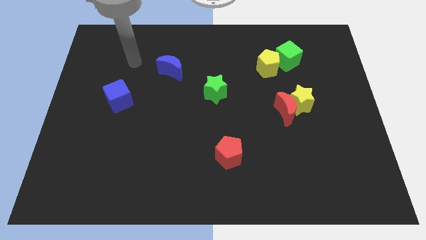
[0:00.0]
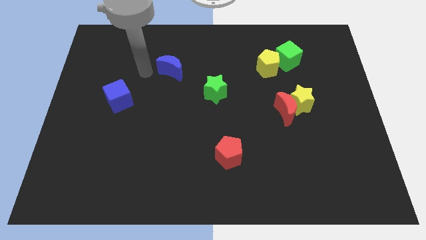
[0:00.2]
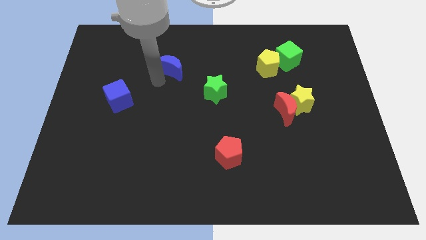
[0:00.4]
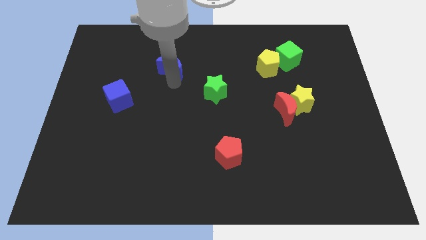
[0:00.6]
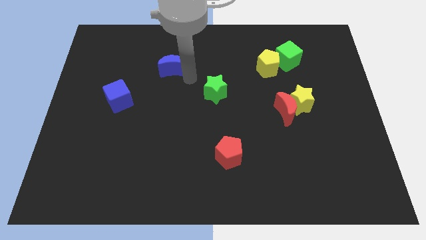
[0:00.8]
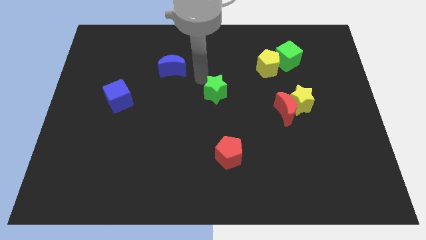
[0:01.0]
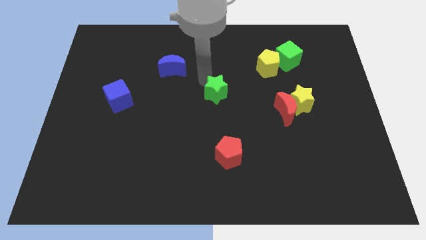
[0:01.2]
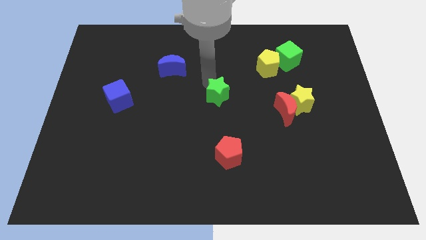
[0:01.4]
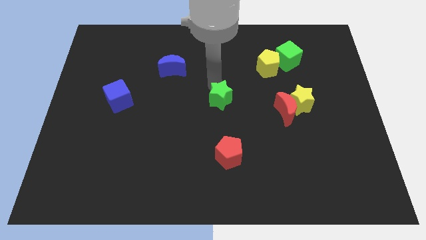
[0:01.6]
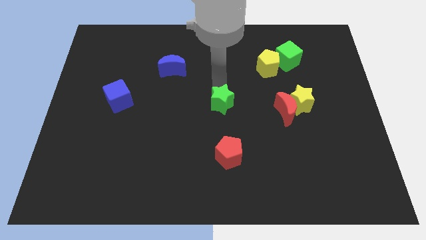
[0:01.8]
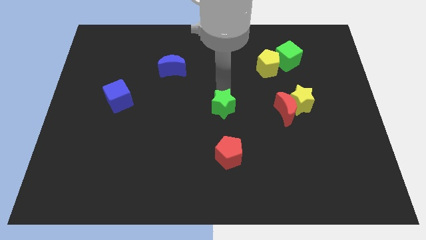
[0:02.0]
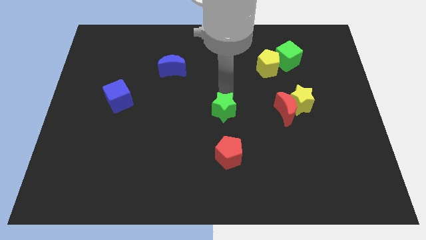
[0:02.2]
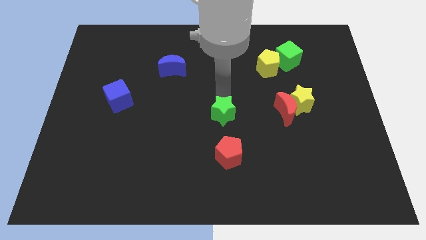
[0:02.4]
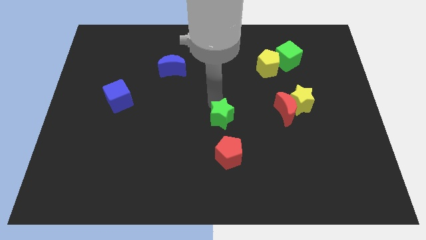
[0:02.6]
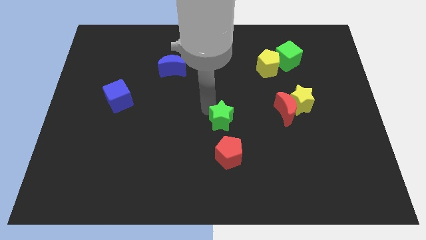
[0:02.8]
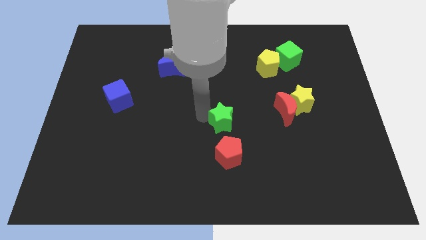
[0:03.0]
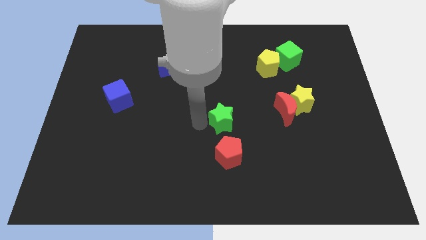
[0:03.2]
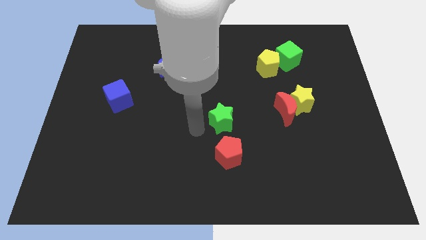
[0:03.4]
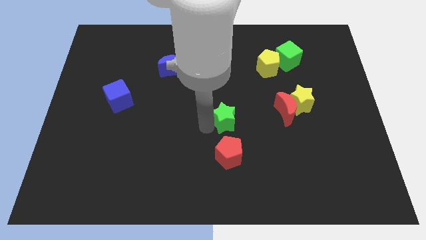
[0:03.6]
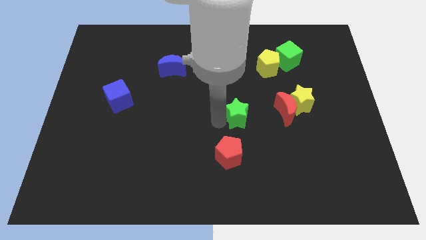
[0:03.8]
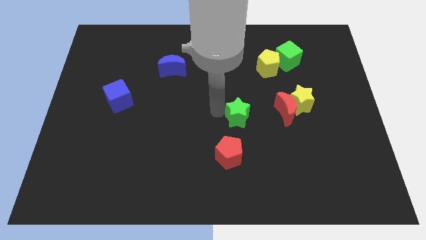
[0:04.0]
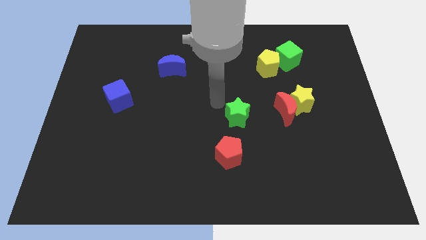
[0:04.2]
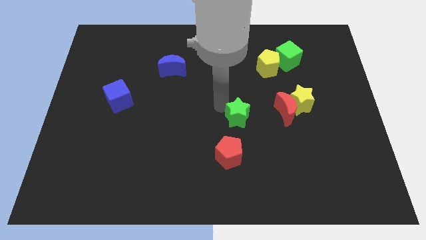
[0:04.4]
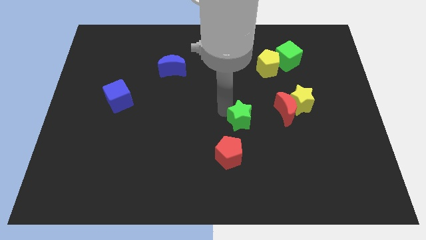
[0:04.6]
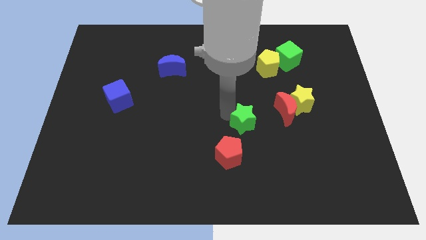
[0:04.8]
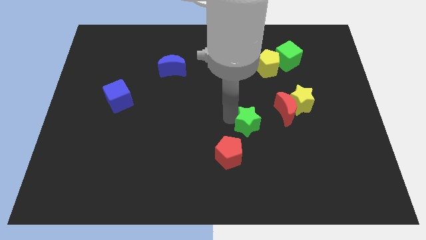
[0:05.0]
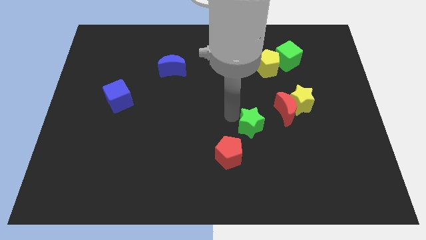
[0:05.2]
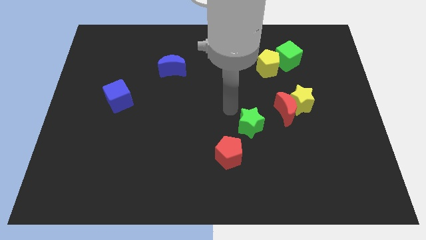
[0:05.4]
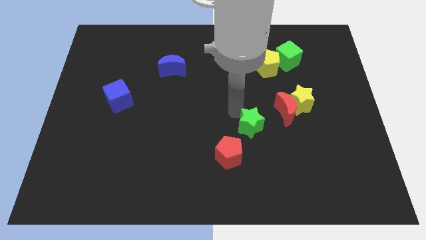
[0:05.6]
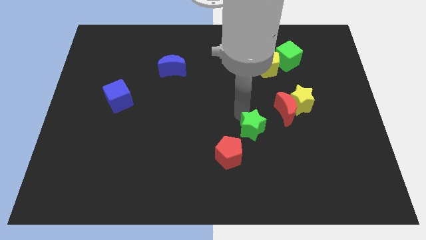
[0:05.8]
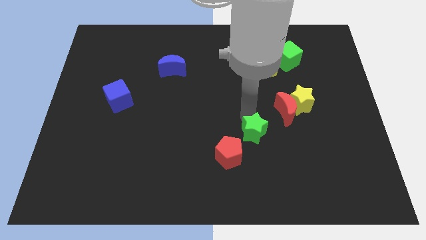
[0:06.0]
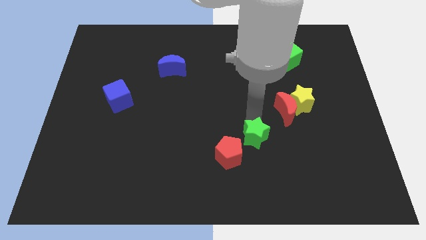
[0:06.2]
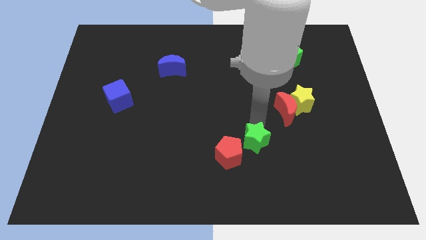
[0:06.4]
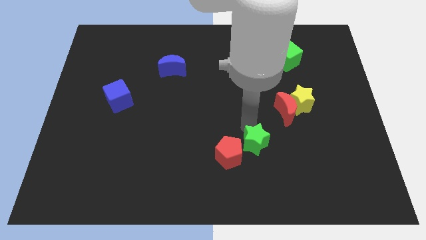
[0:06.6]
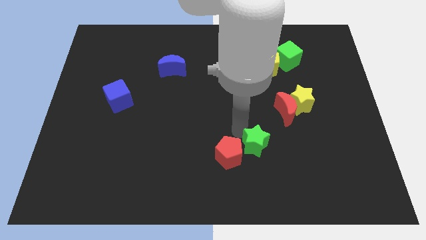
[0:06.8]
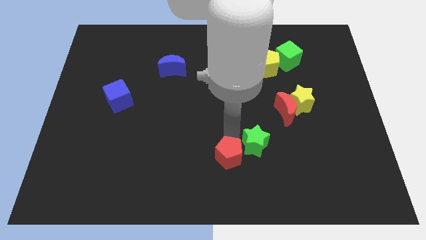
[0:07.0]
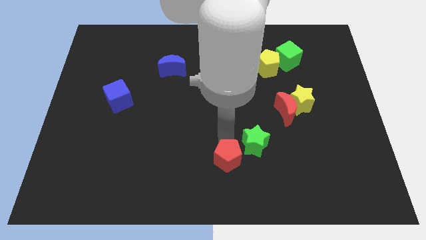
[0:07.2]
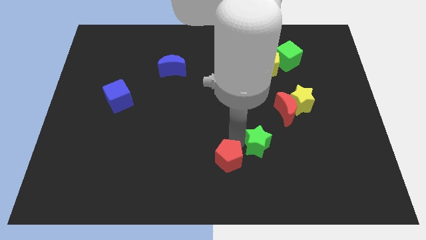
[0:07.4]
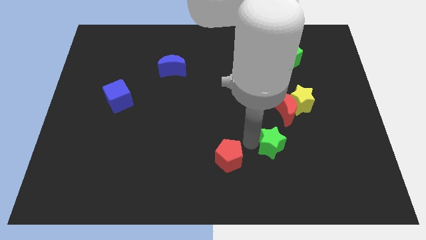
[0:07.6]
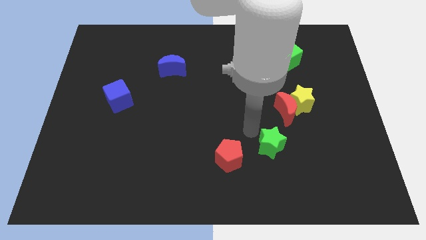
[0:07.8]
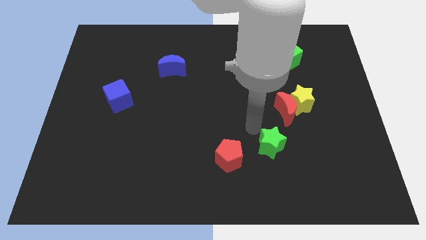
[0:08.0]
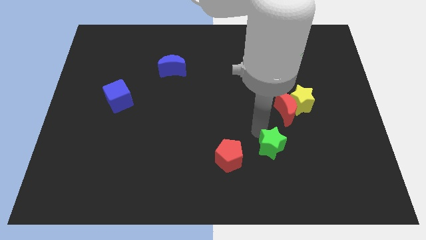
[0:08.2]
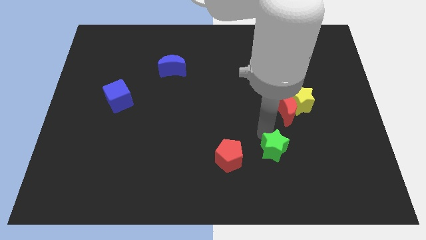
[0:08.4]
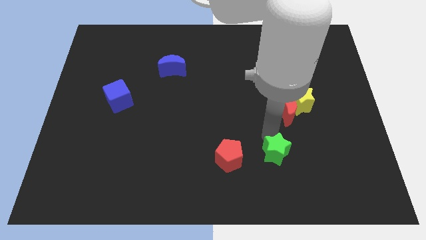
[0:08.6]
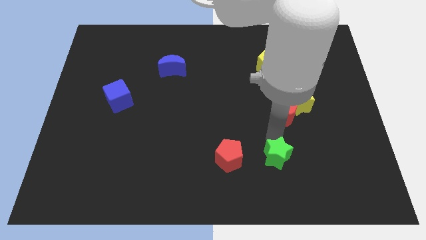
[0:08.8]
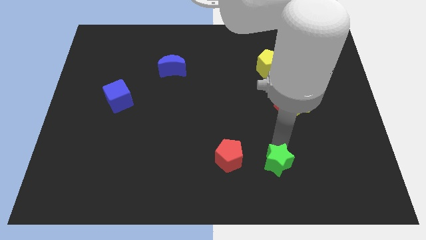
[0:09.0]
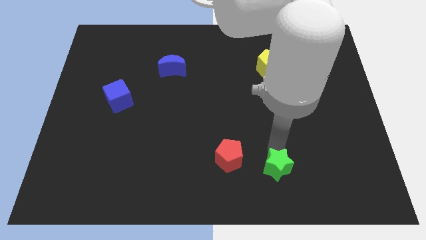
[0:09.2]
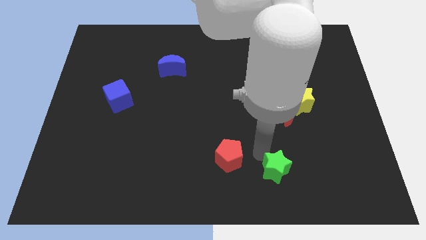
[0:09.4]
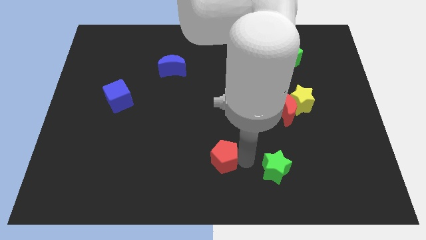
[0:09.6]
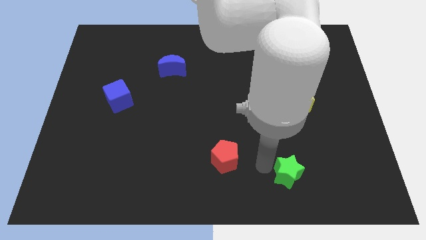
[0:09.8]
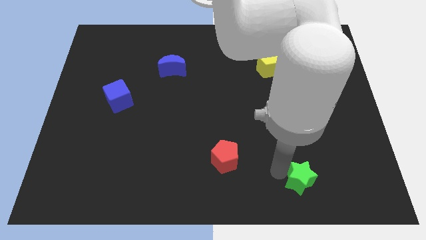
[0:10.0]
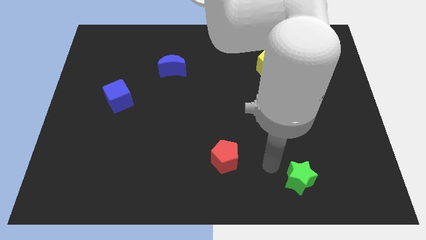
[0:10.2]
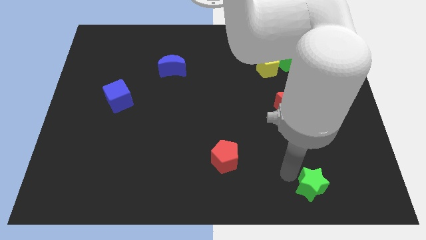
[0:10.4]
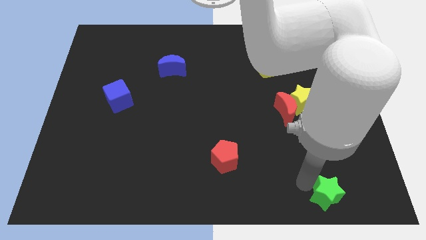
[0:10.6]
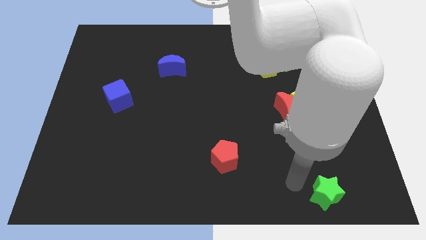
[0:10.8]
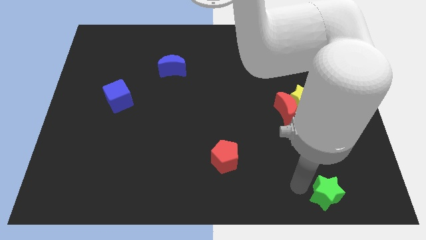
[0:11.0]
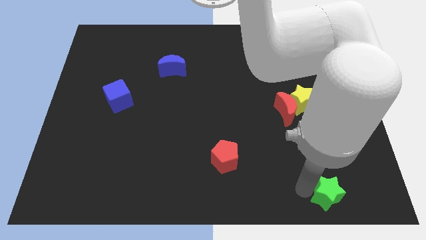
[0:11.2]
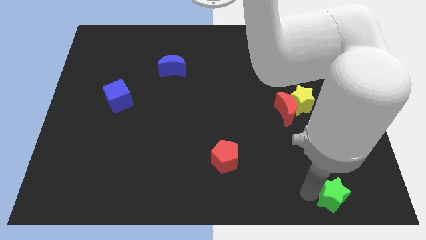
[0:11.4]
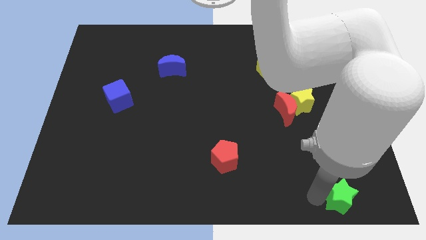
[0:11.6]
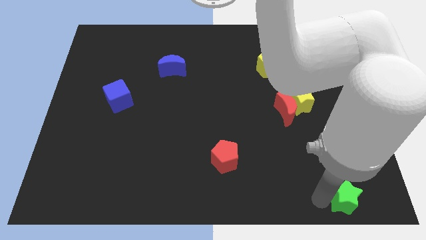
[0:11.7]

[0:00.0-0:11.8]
put the green star to the lower right corner
